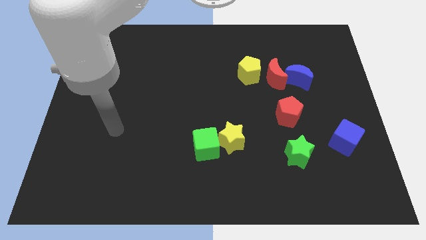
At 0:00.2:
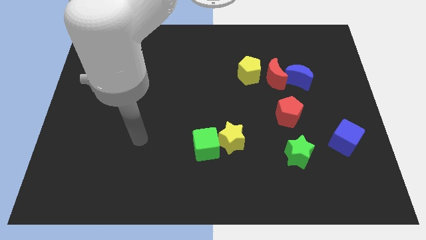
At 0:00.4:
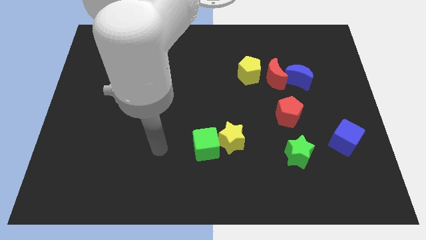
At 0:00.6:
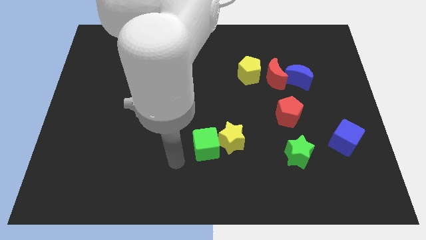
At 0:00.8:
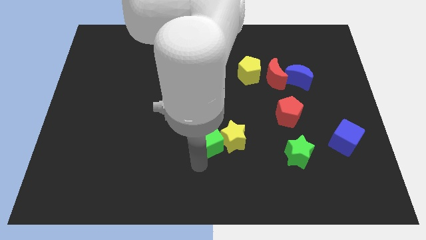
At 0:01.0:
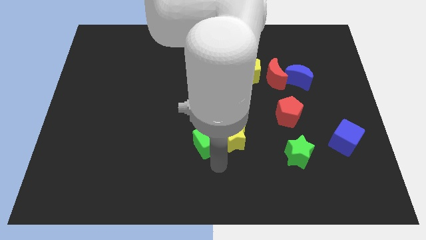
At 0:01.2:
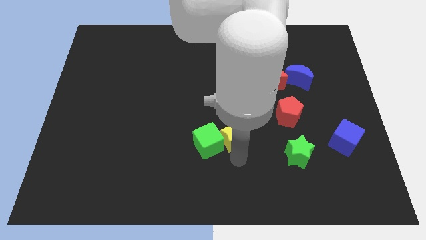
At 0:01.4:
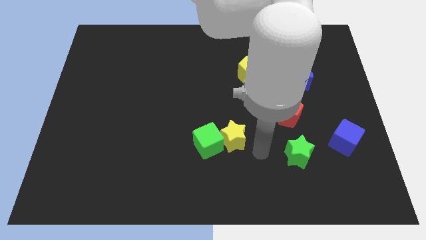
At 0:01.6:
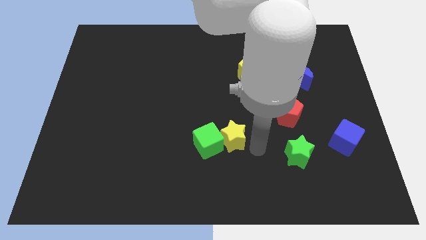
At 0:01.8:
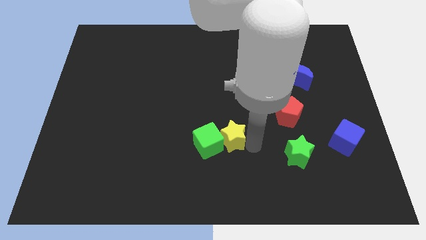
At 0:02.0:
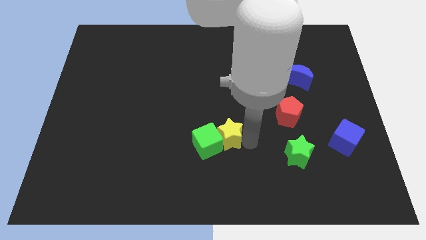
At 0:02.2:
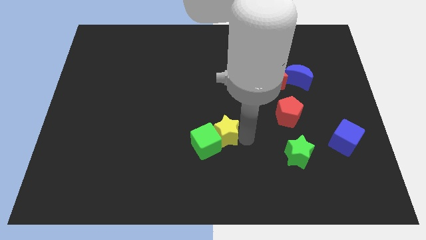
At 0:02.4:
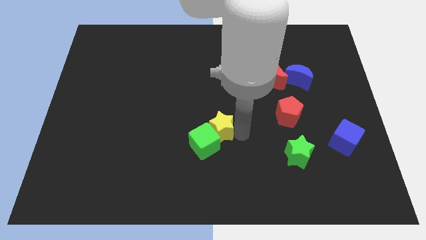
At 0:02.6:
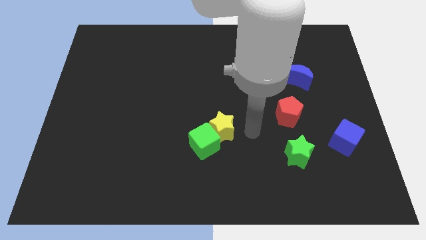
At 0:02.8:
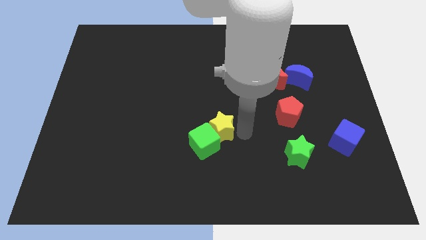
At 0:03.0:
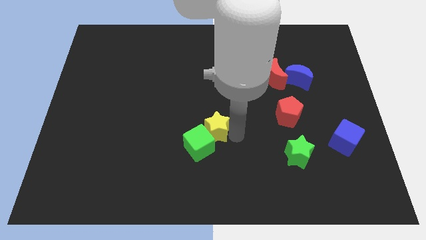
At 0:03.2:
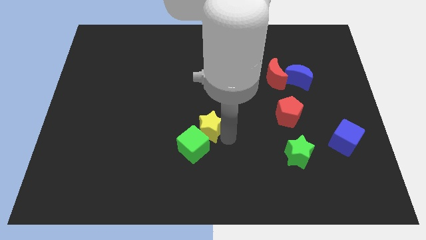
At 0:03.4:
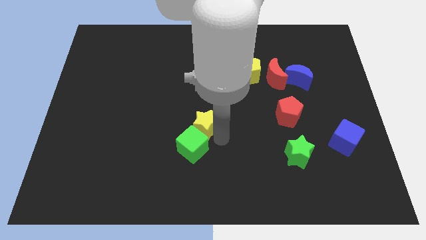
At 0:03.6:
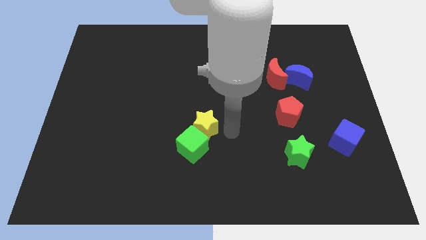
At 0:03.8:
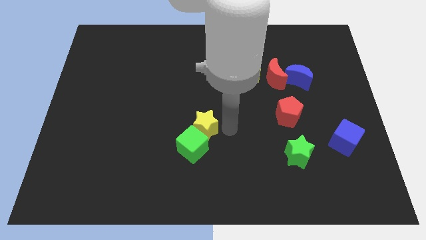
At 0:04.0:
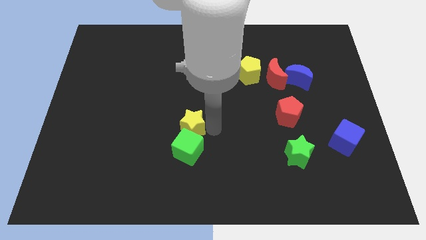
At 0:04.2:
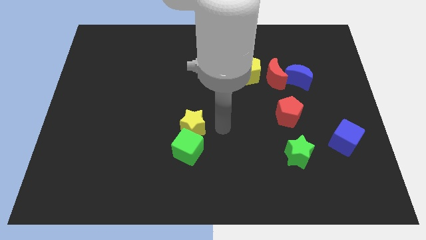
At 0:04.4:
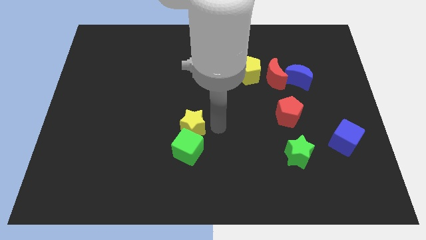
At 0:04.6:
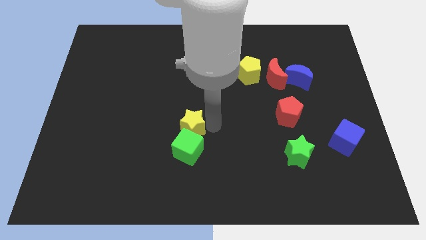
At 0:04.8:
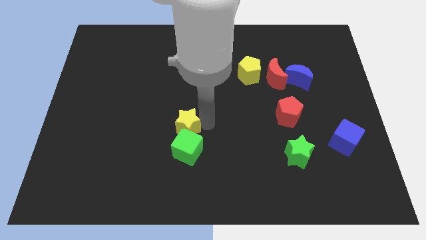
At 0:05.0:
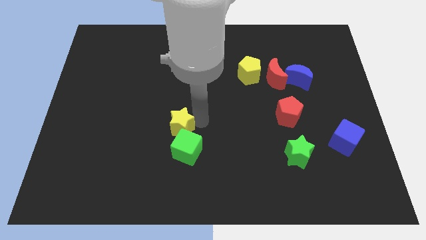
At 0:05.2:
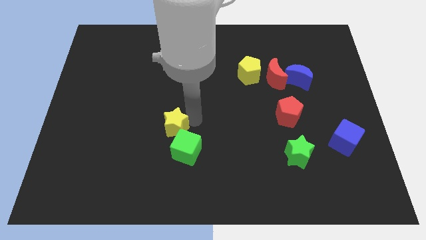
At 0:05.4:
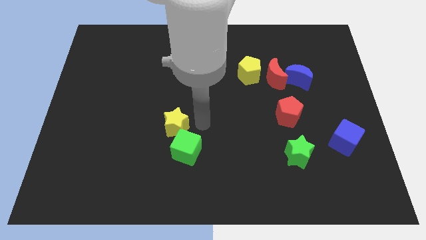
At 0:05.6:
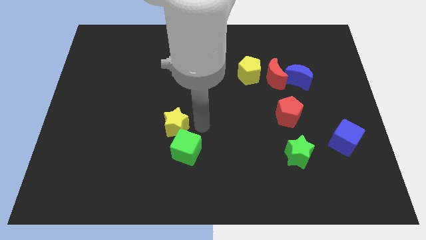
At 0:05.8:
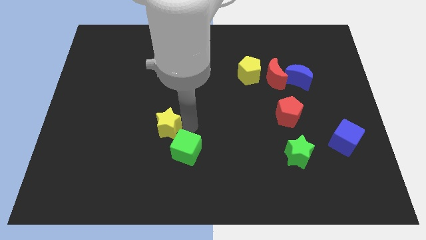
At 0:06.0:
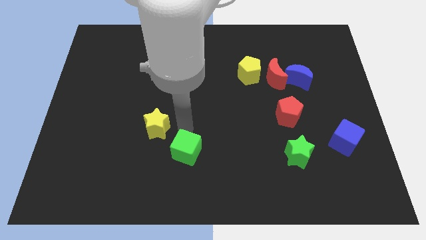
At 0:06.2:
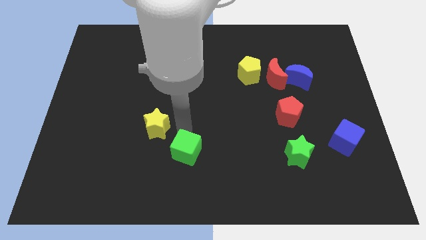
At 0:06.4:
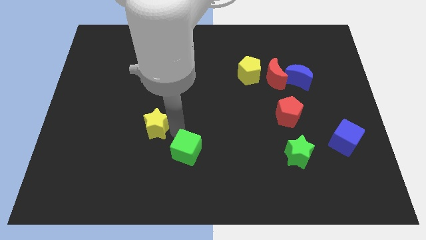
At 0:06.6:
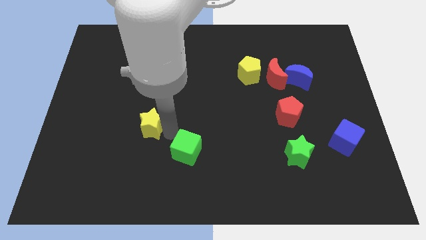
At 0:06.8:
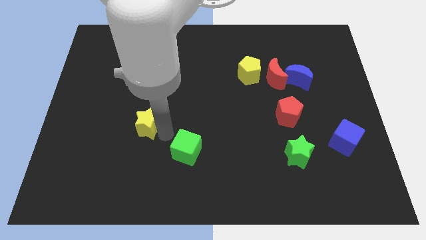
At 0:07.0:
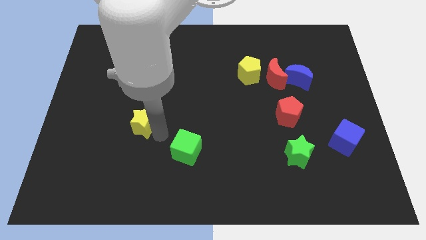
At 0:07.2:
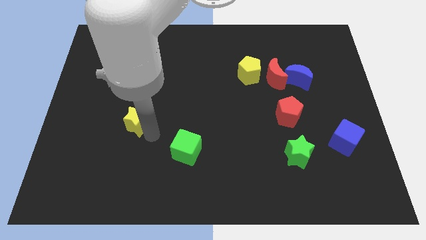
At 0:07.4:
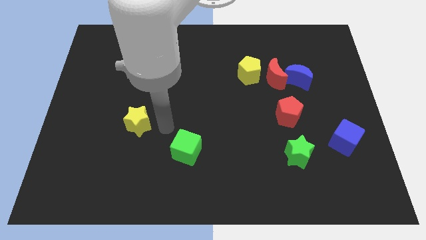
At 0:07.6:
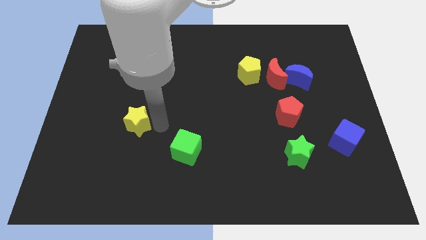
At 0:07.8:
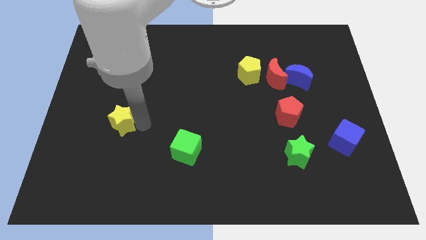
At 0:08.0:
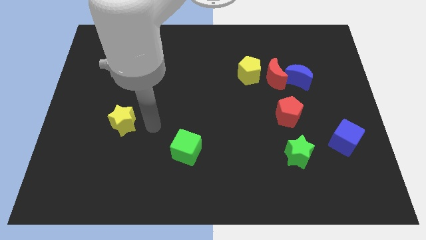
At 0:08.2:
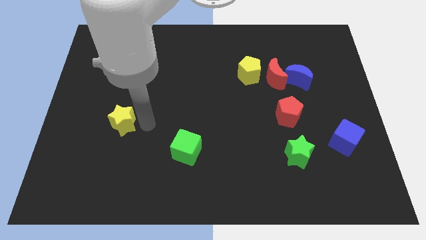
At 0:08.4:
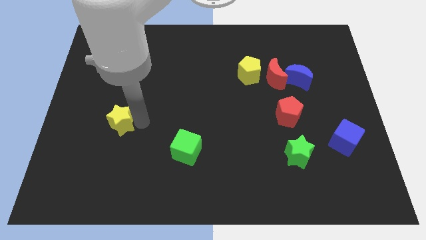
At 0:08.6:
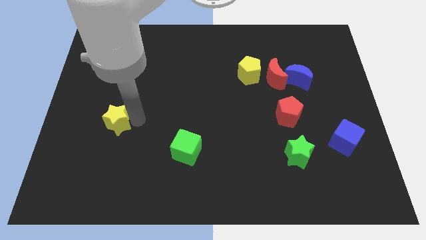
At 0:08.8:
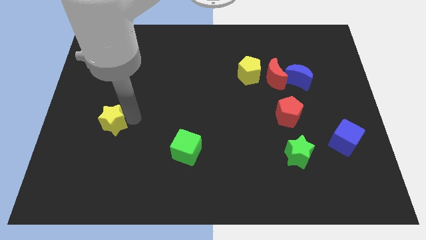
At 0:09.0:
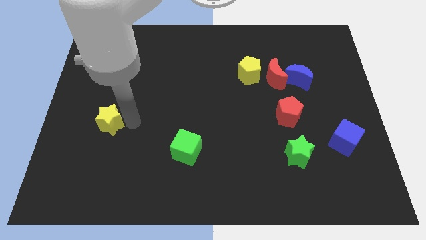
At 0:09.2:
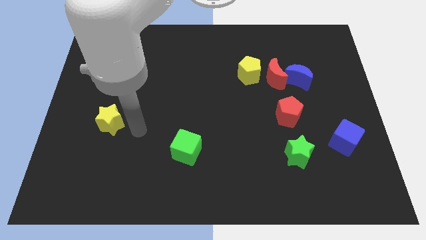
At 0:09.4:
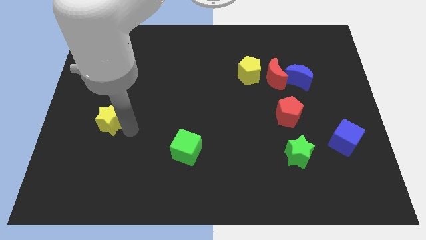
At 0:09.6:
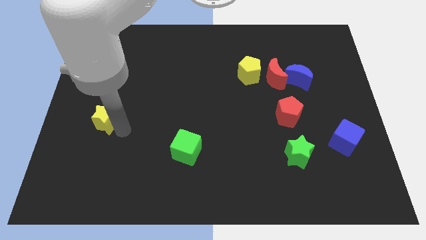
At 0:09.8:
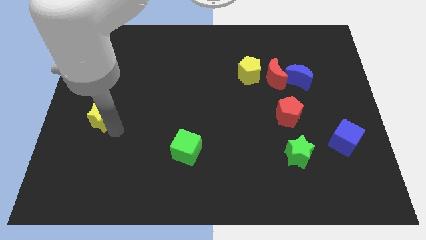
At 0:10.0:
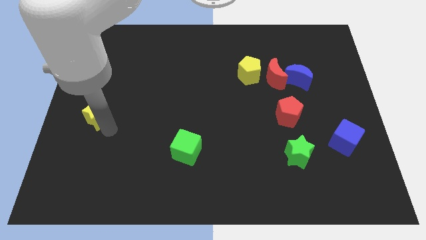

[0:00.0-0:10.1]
move the yellow star to the center left
